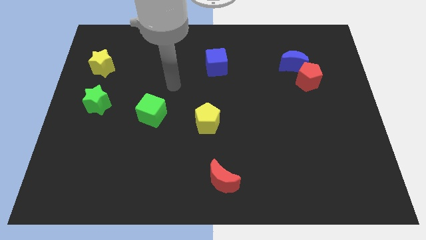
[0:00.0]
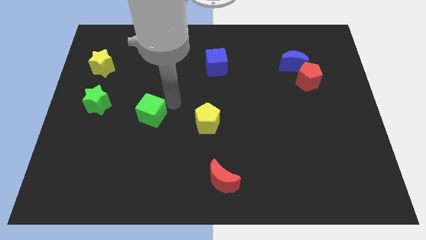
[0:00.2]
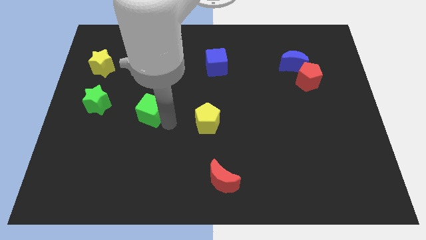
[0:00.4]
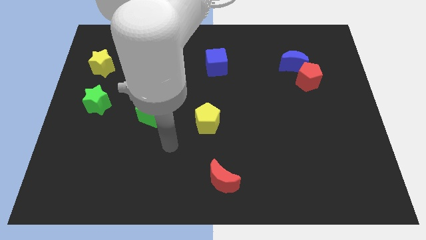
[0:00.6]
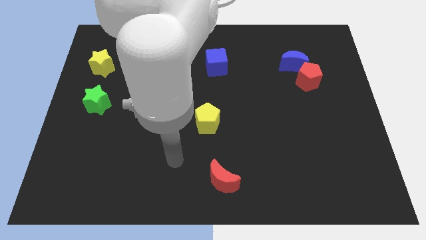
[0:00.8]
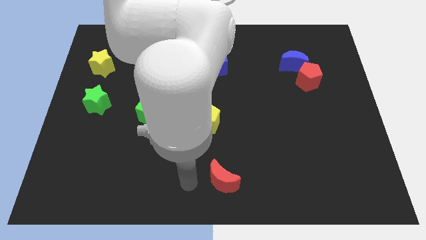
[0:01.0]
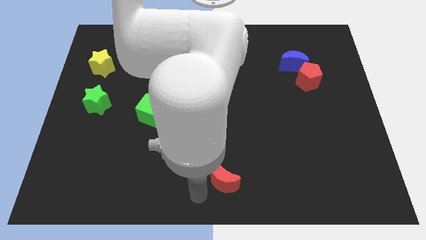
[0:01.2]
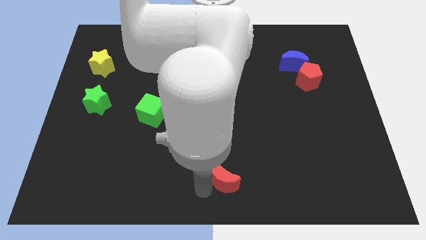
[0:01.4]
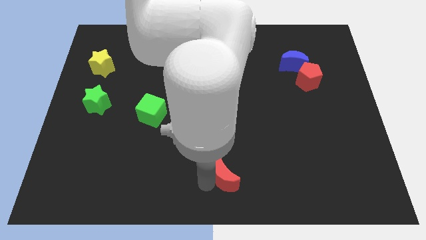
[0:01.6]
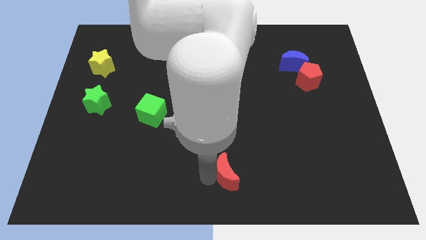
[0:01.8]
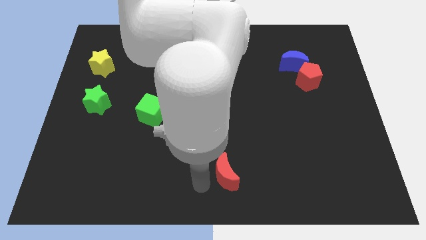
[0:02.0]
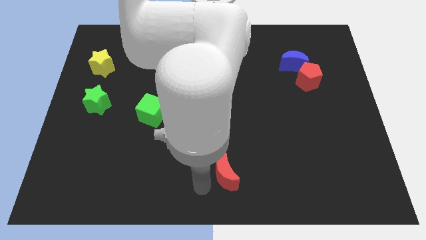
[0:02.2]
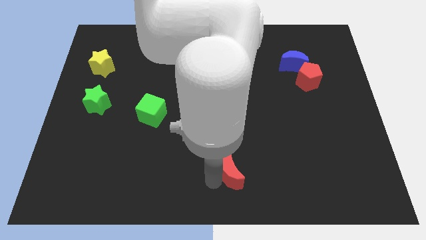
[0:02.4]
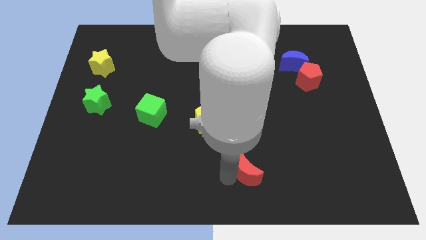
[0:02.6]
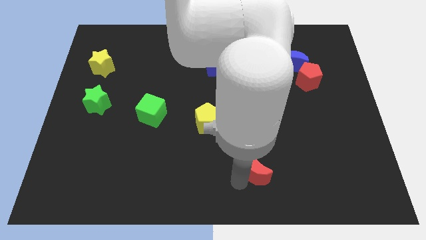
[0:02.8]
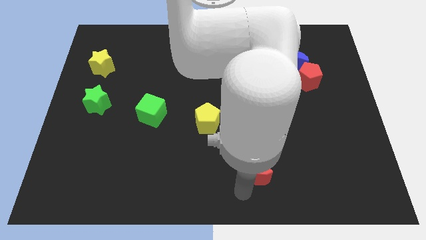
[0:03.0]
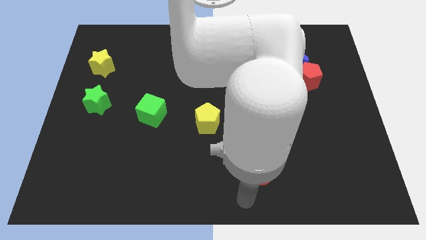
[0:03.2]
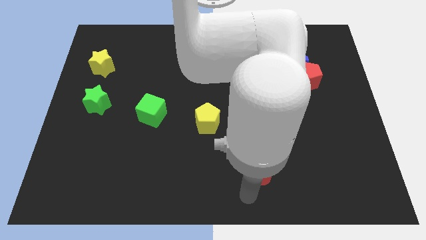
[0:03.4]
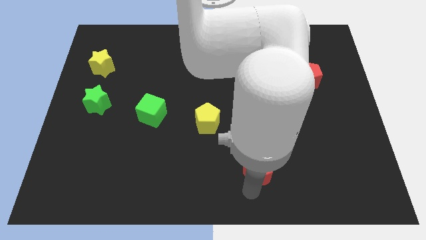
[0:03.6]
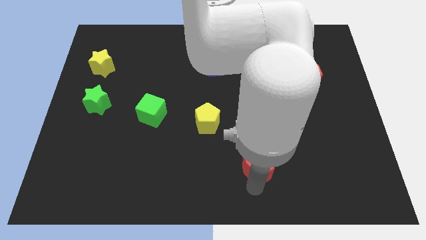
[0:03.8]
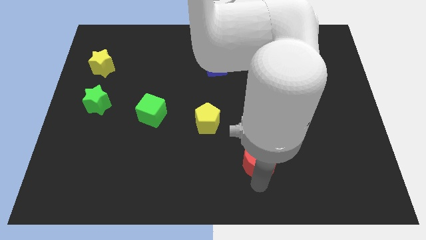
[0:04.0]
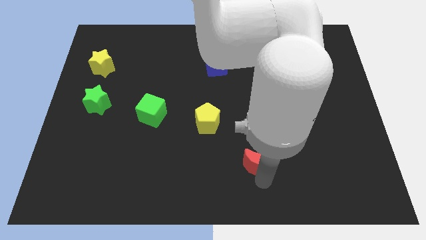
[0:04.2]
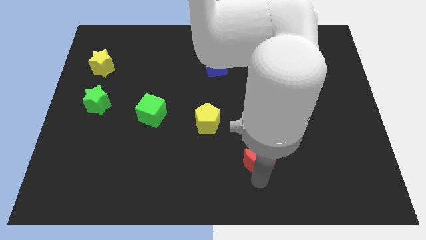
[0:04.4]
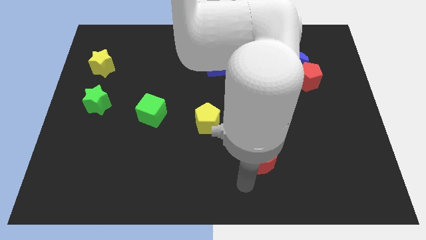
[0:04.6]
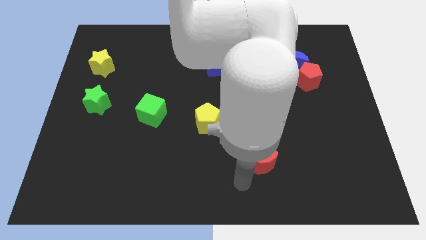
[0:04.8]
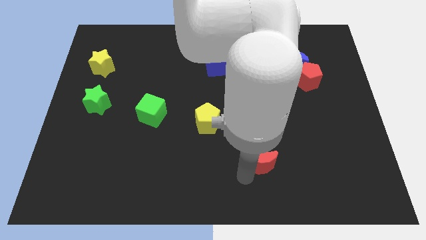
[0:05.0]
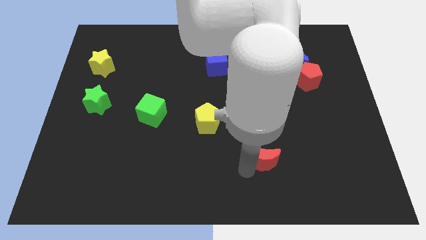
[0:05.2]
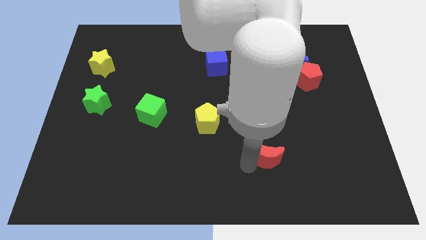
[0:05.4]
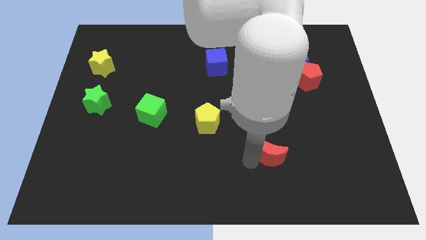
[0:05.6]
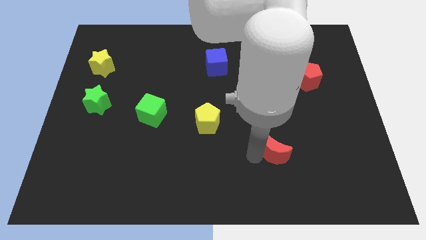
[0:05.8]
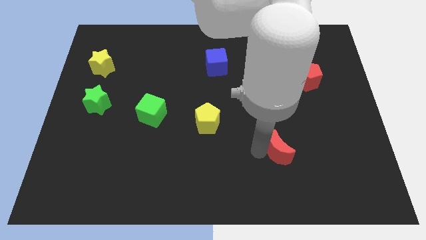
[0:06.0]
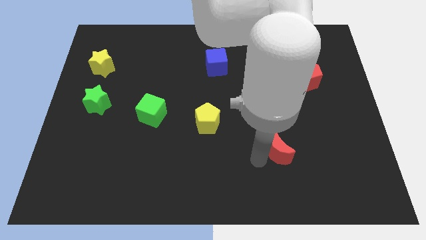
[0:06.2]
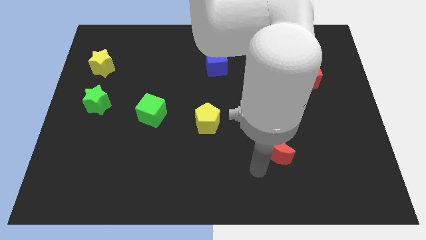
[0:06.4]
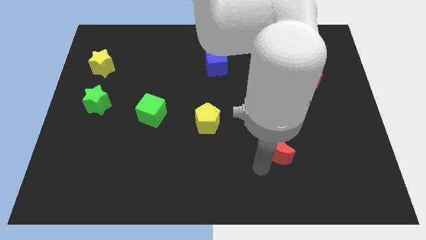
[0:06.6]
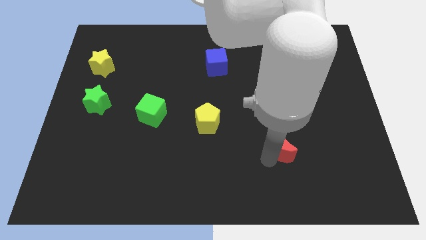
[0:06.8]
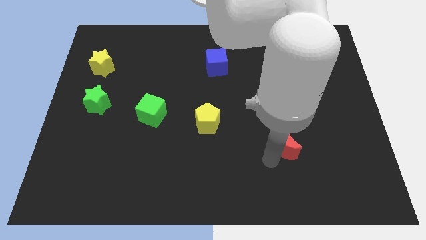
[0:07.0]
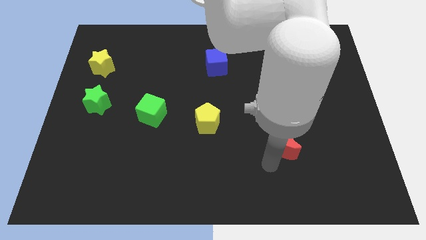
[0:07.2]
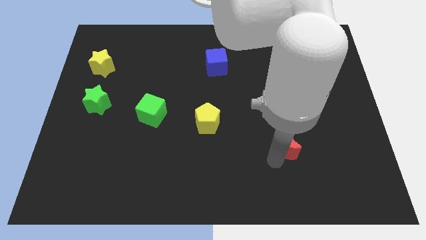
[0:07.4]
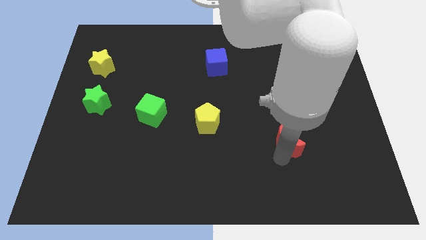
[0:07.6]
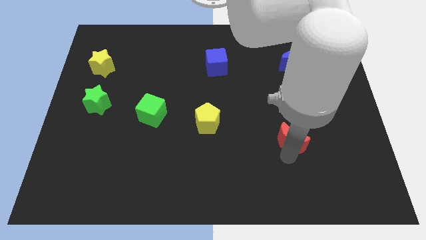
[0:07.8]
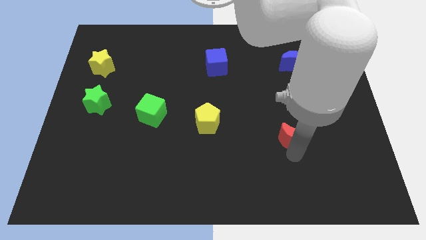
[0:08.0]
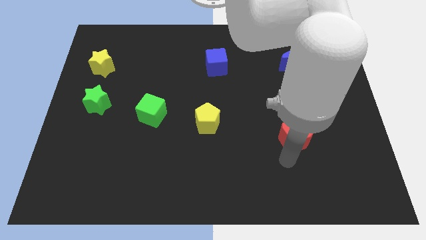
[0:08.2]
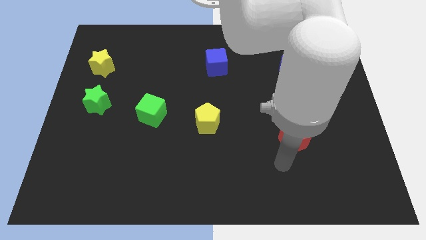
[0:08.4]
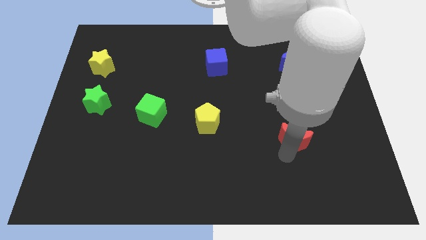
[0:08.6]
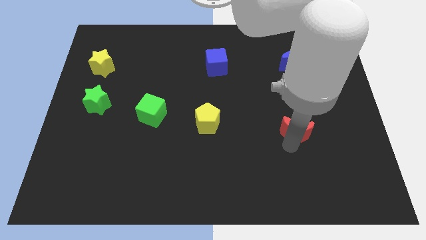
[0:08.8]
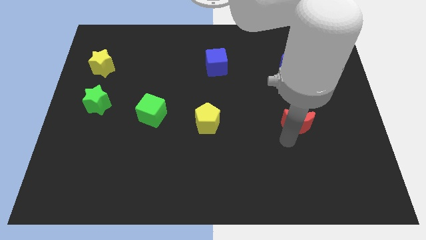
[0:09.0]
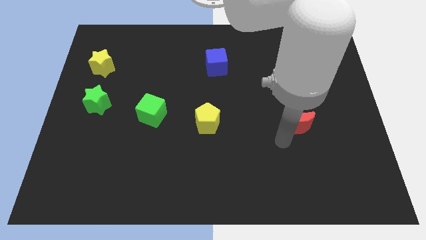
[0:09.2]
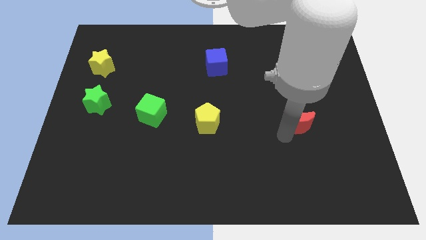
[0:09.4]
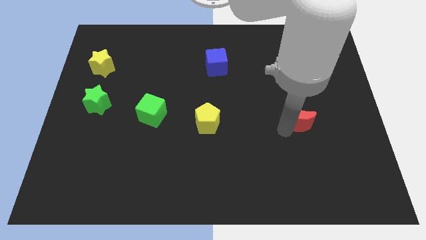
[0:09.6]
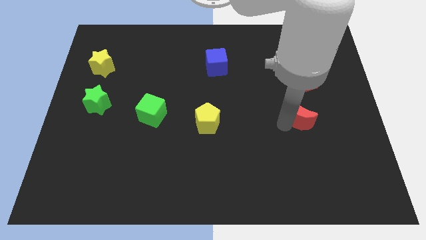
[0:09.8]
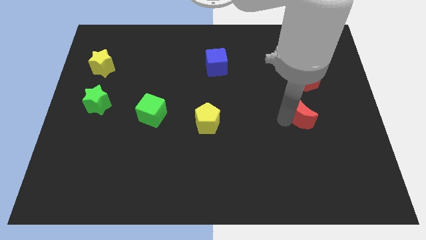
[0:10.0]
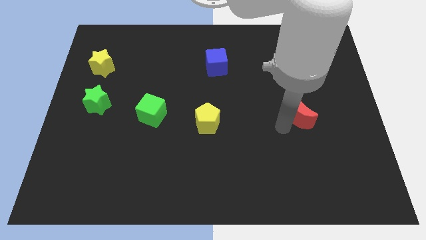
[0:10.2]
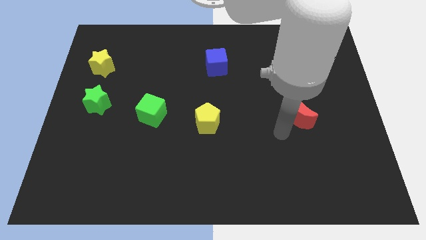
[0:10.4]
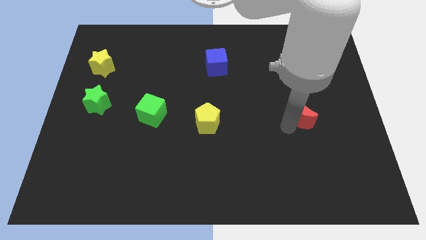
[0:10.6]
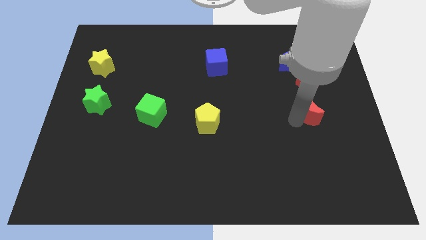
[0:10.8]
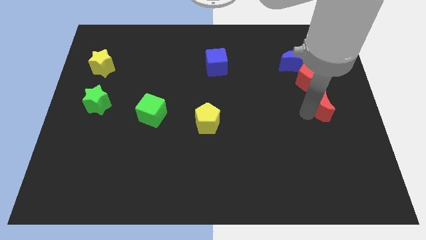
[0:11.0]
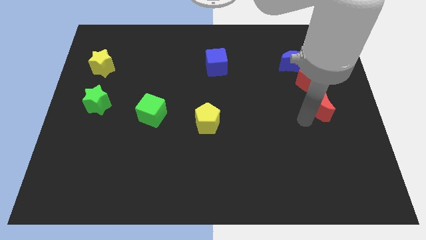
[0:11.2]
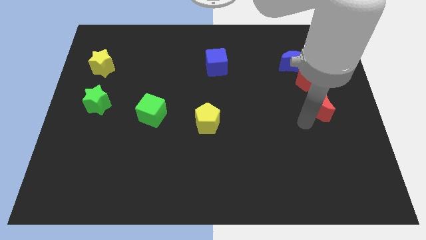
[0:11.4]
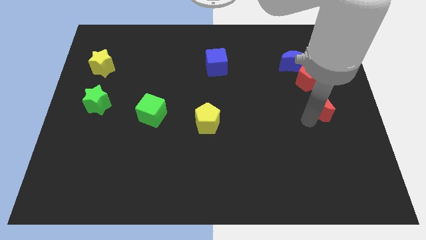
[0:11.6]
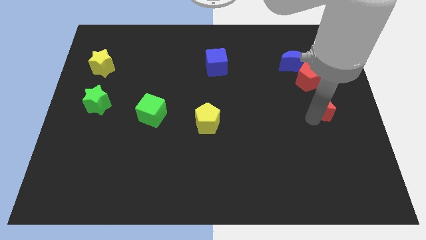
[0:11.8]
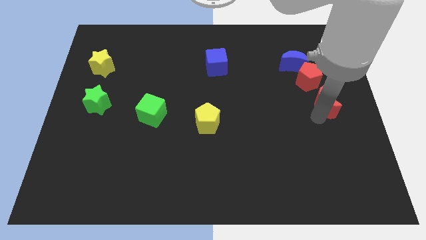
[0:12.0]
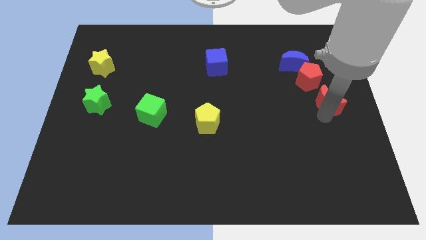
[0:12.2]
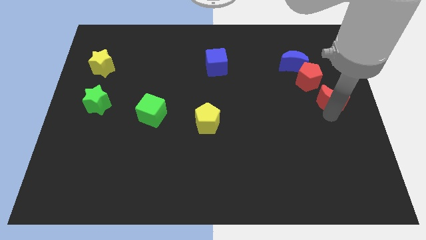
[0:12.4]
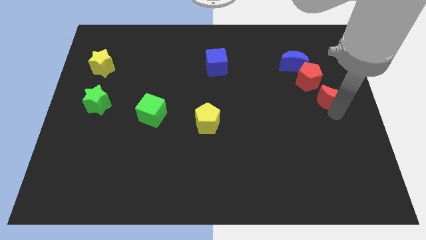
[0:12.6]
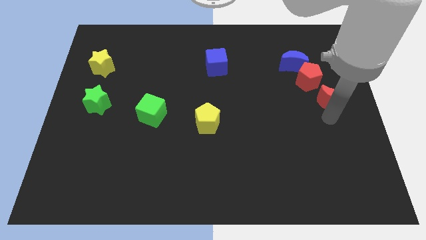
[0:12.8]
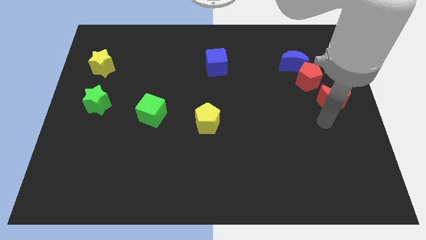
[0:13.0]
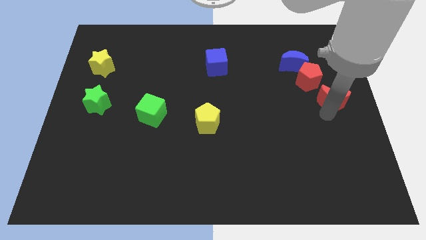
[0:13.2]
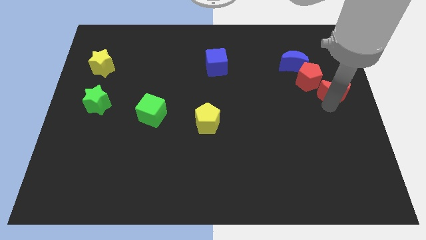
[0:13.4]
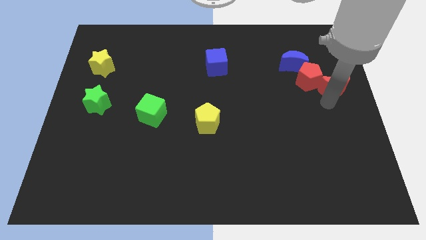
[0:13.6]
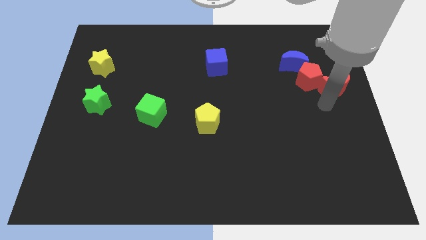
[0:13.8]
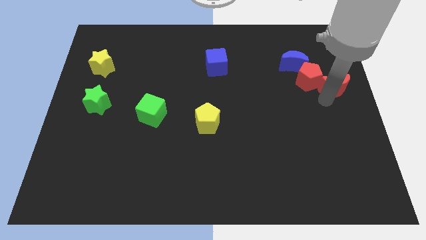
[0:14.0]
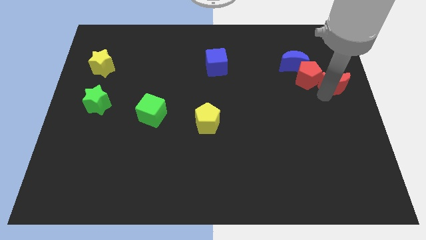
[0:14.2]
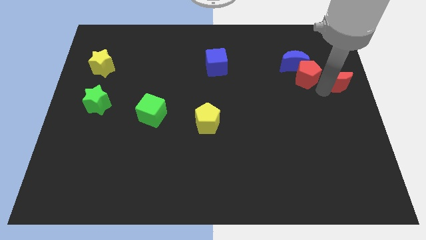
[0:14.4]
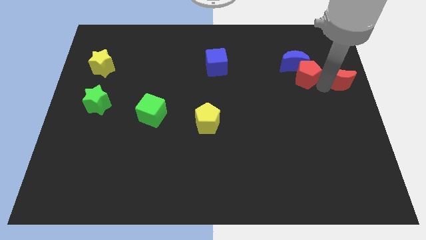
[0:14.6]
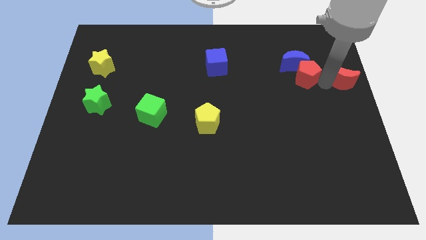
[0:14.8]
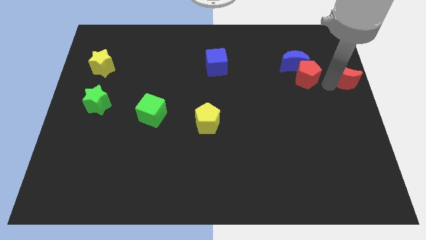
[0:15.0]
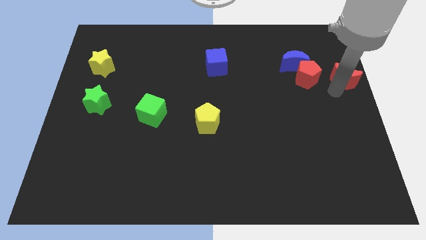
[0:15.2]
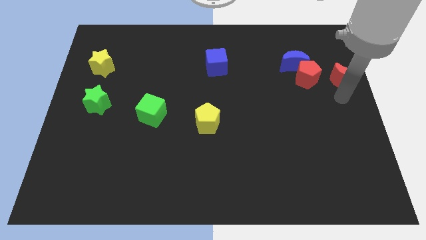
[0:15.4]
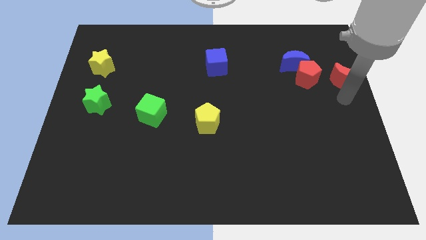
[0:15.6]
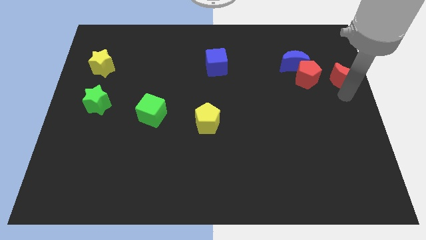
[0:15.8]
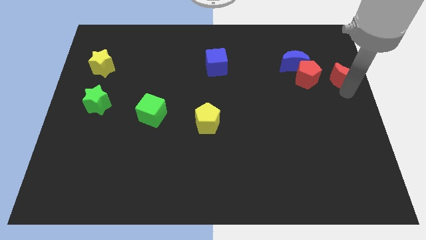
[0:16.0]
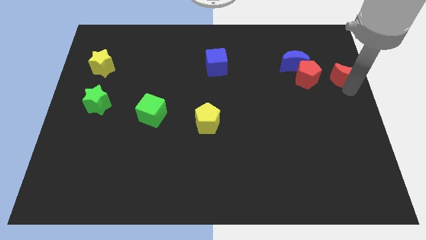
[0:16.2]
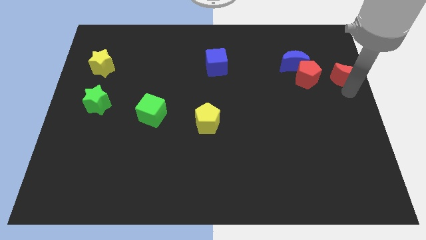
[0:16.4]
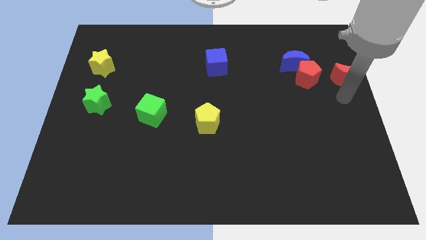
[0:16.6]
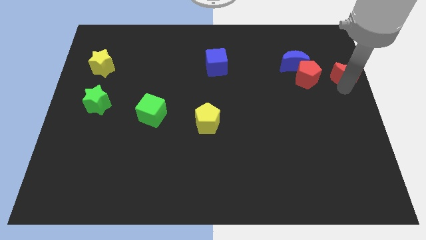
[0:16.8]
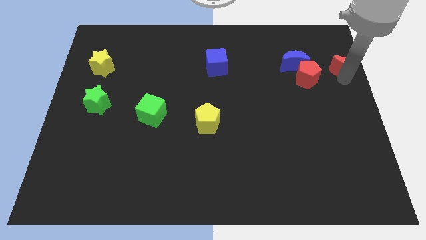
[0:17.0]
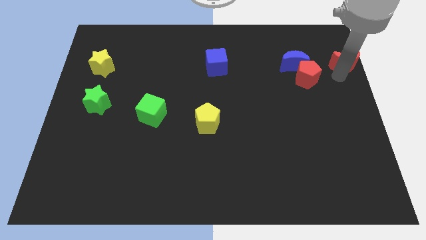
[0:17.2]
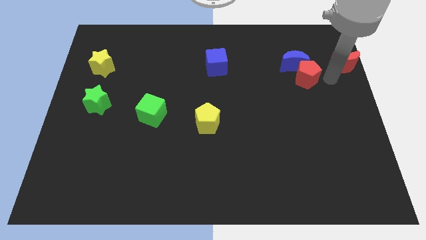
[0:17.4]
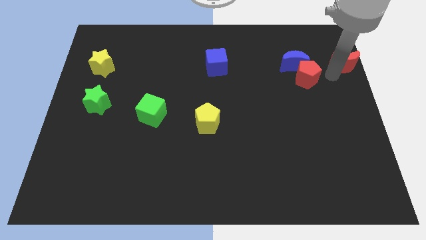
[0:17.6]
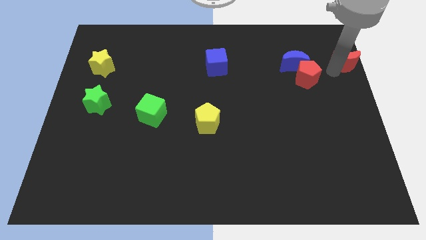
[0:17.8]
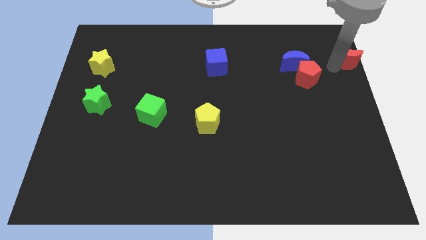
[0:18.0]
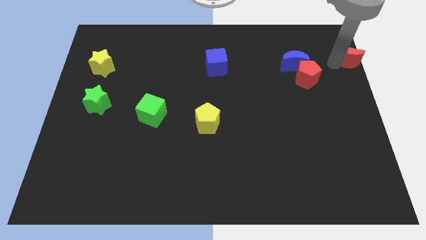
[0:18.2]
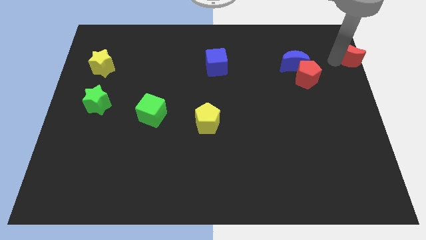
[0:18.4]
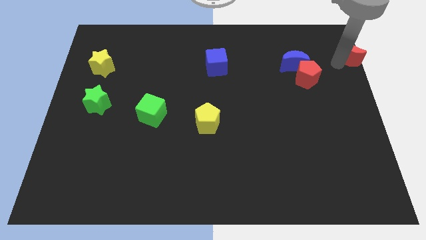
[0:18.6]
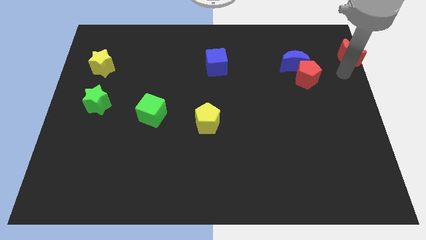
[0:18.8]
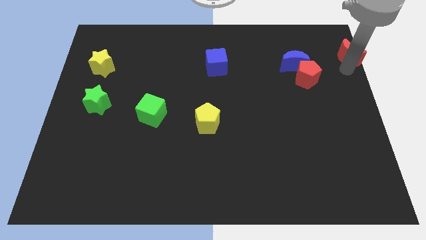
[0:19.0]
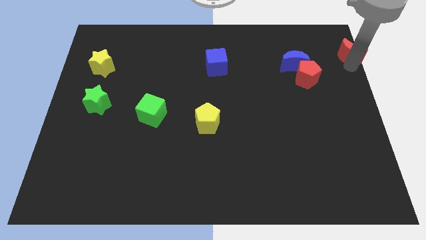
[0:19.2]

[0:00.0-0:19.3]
slide the red moon to the top right corner
